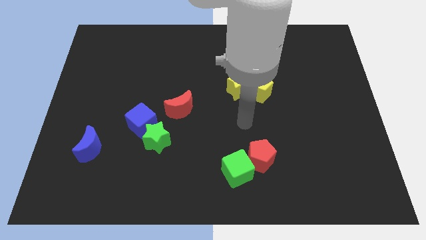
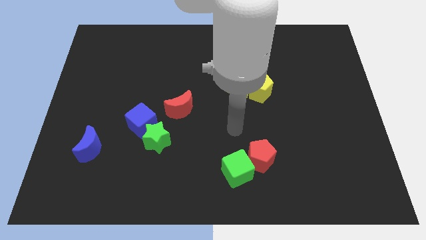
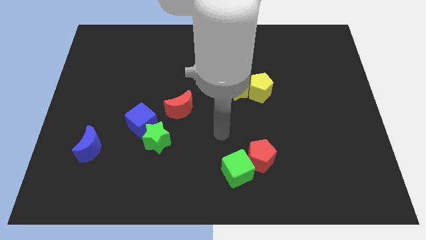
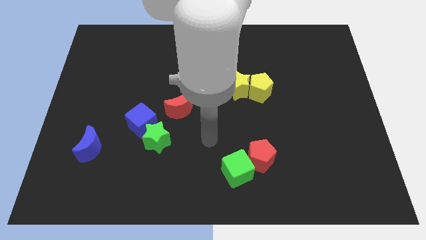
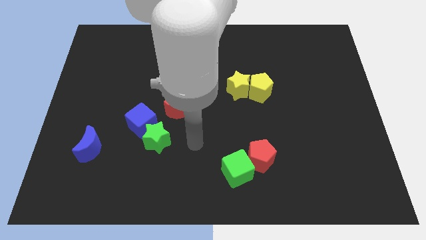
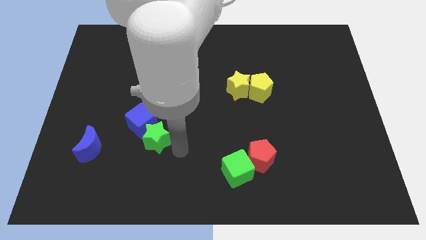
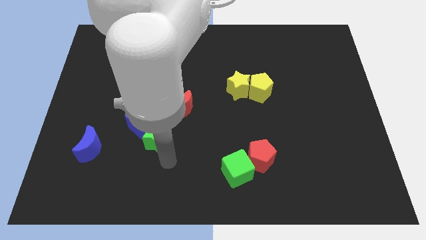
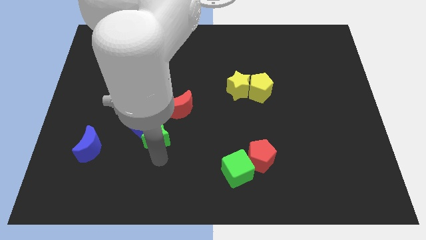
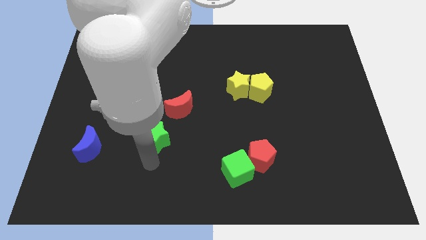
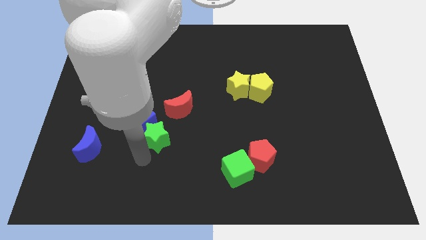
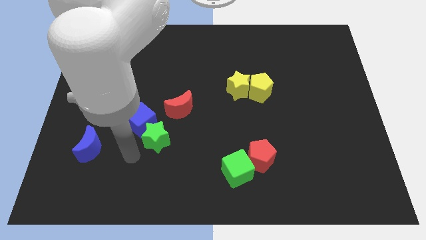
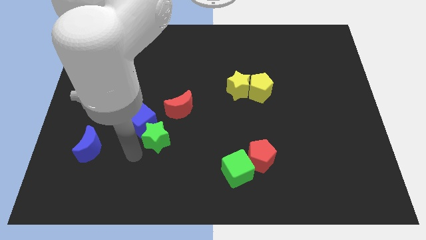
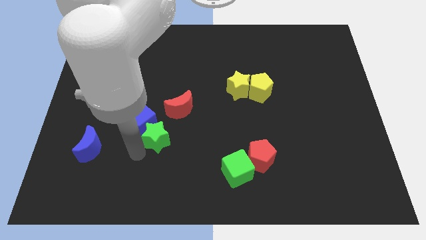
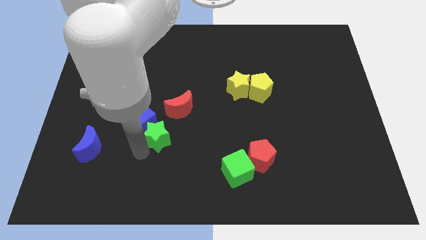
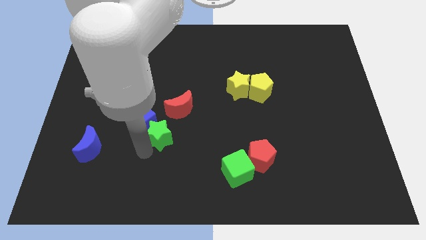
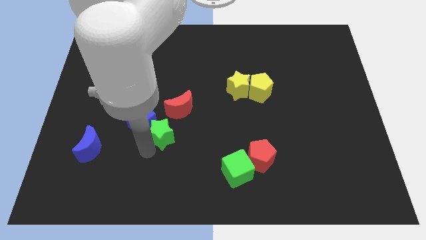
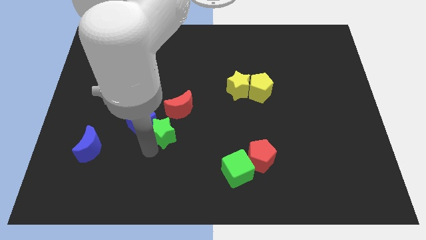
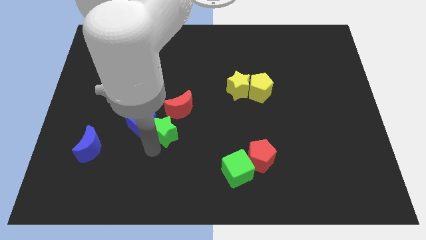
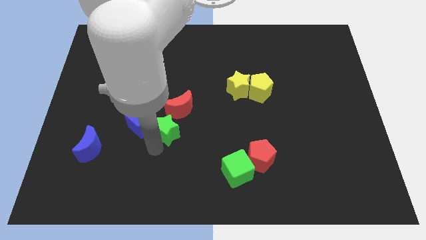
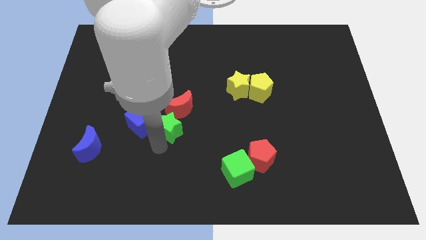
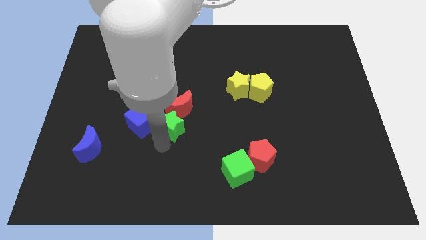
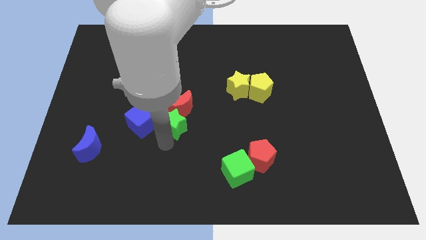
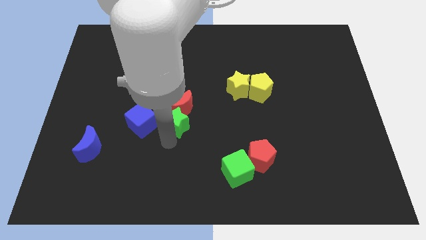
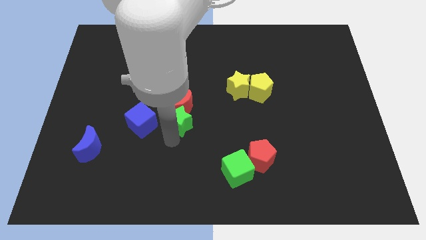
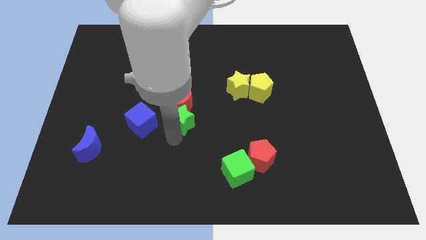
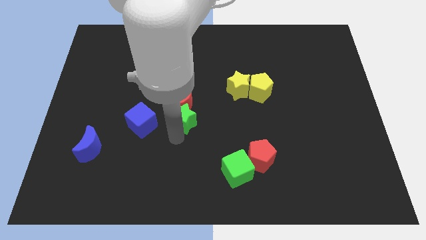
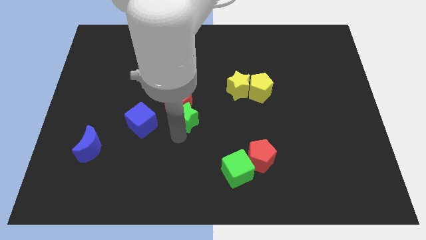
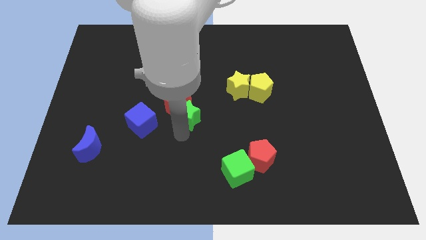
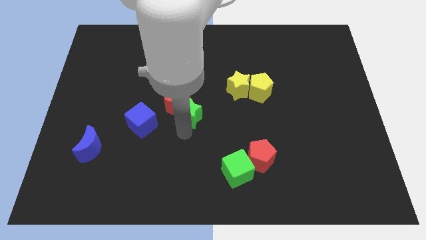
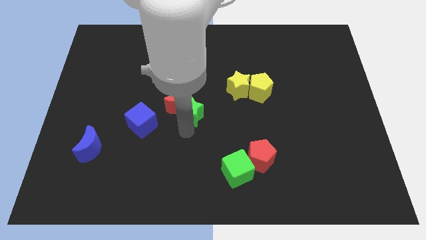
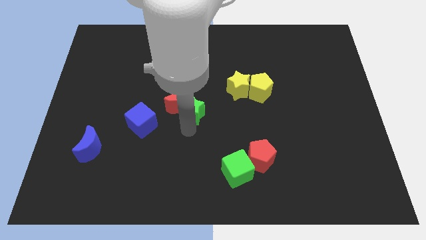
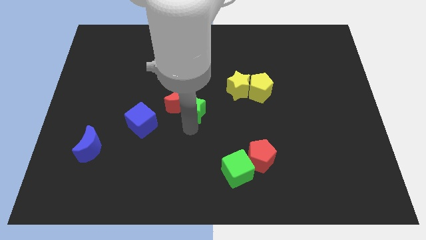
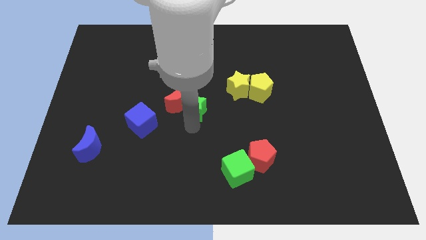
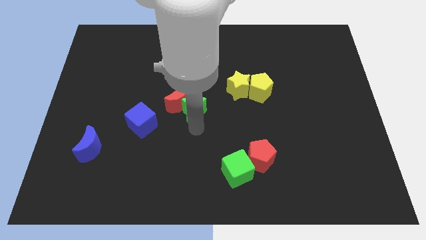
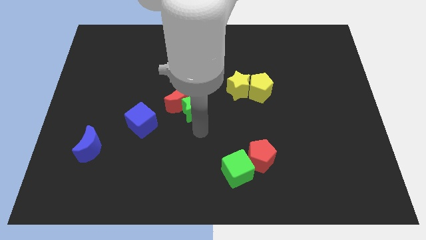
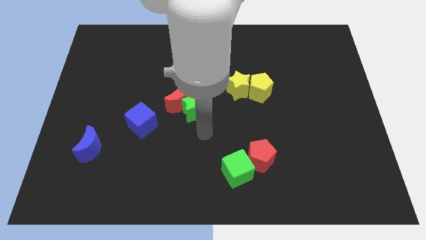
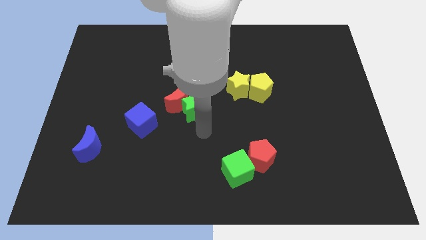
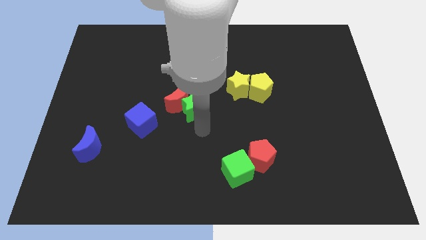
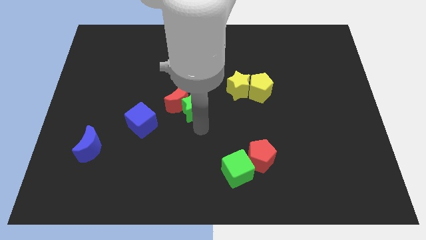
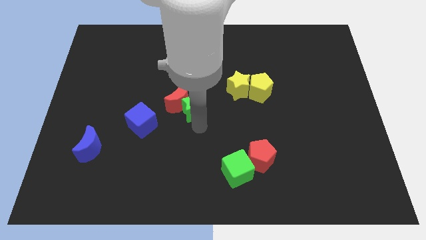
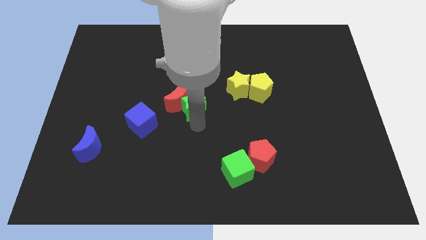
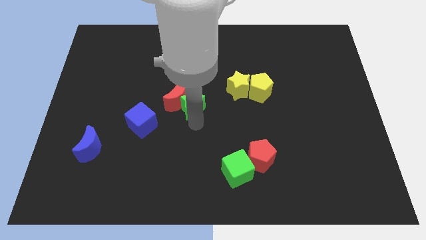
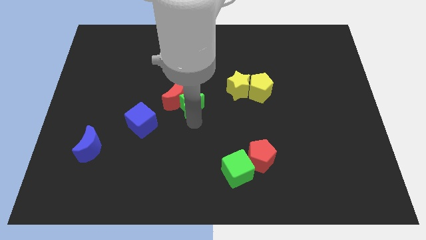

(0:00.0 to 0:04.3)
move the green star a little upwards

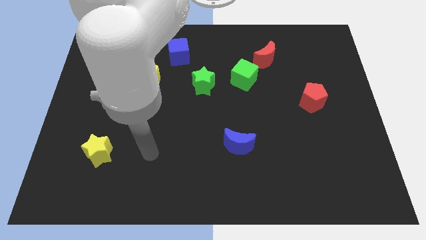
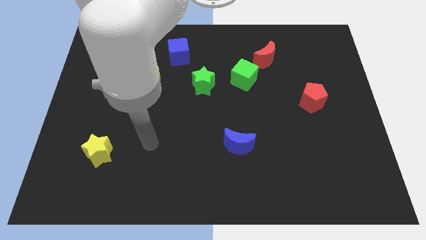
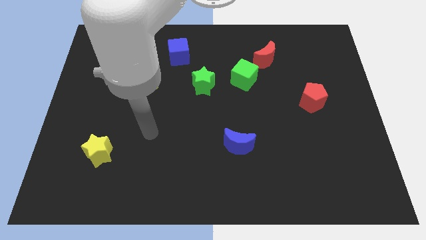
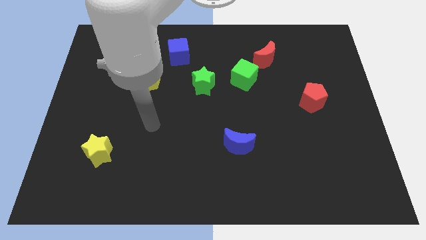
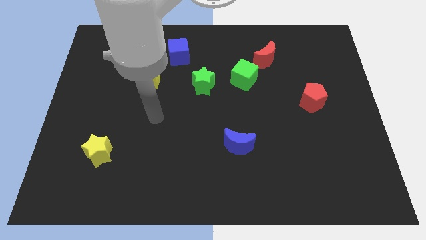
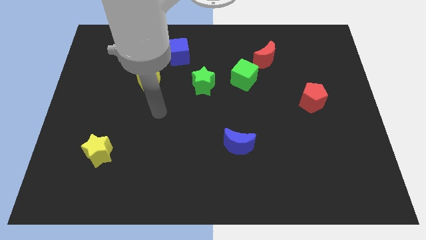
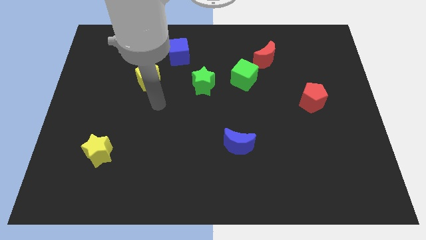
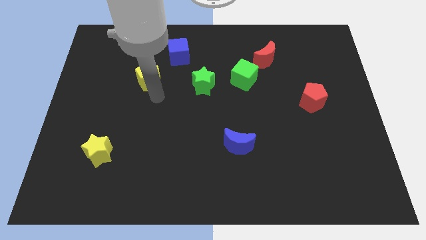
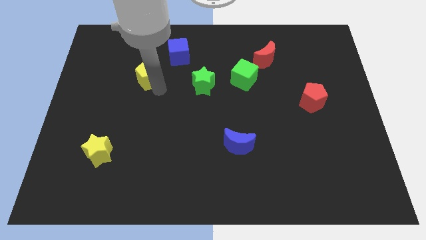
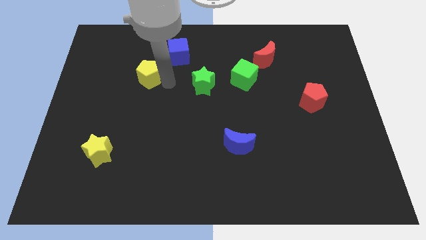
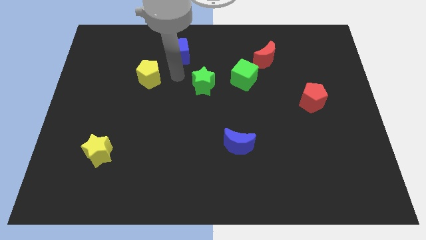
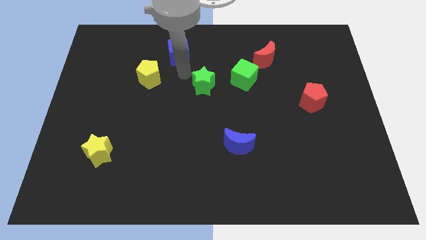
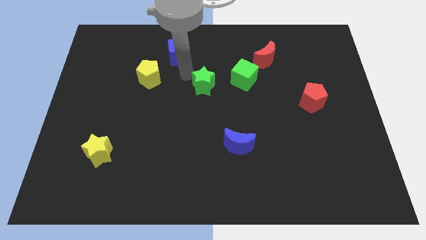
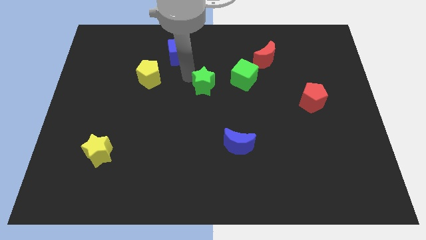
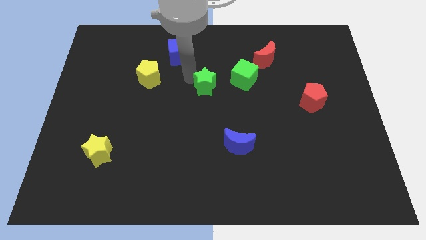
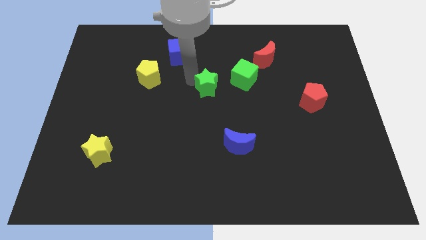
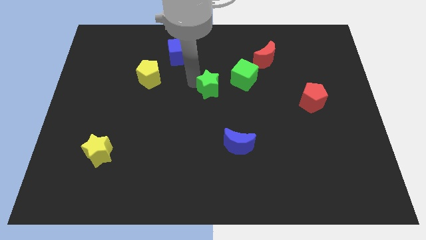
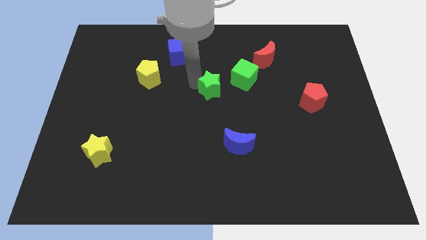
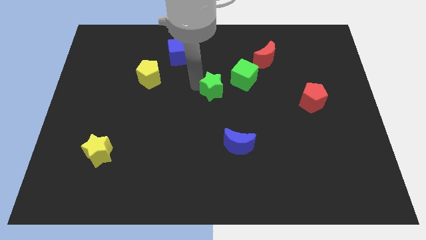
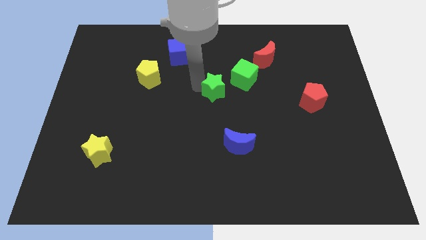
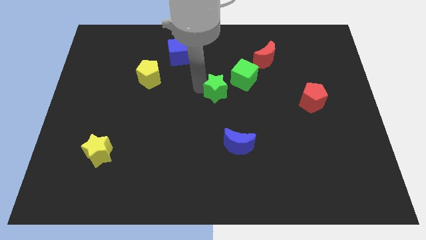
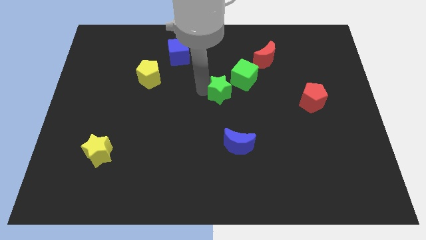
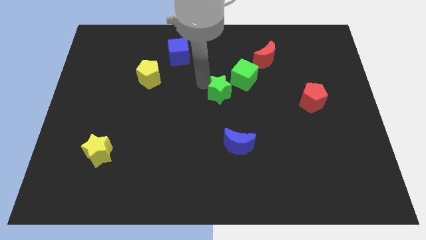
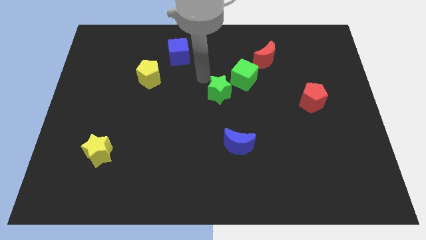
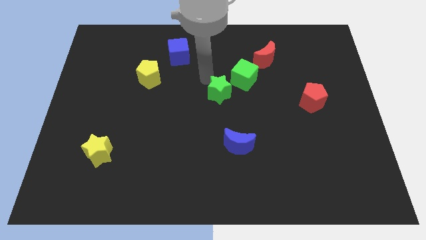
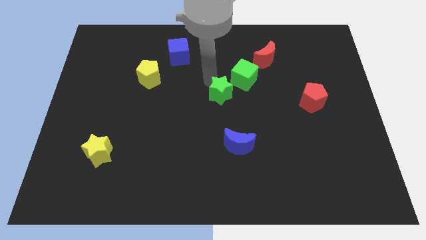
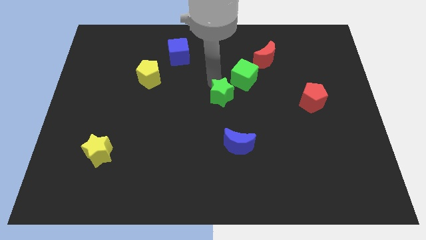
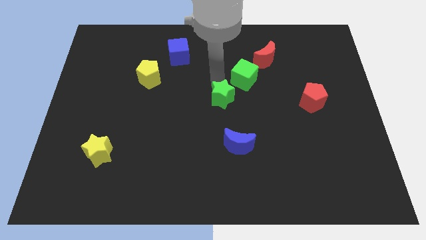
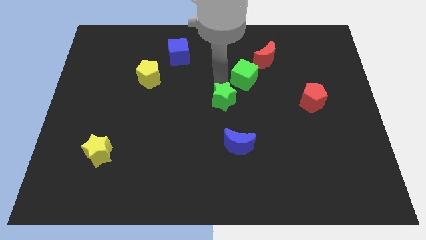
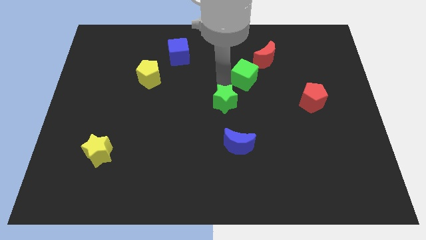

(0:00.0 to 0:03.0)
slightly push the green star downwards and right

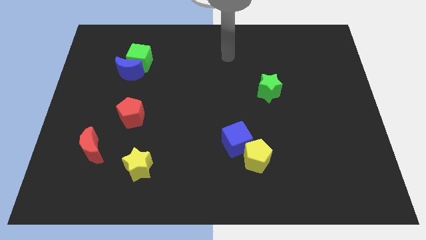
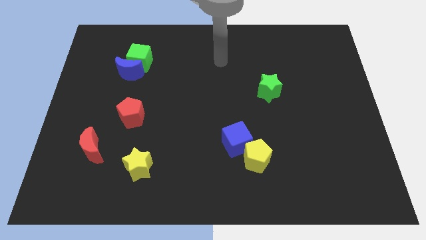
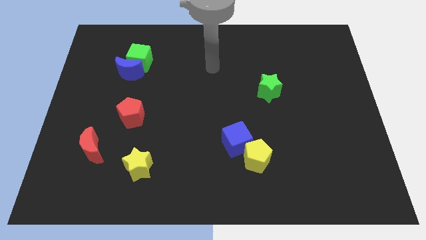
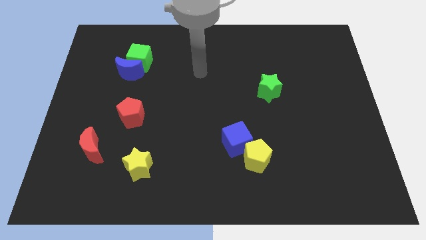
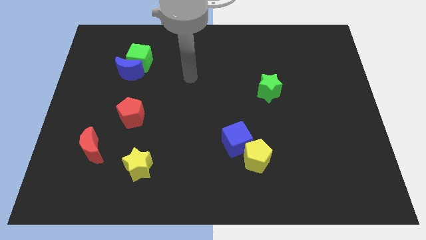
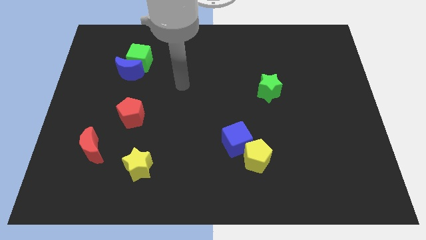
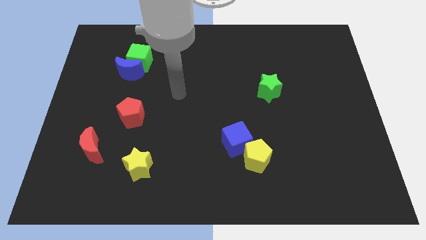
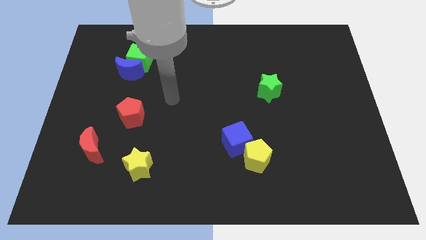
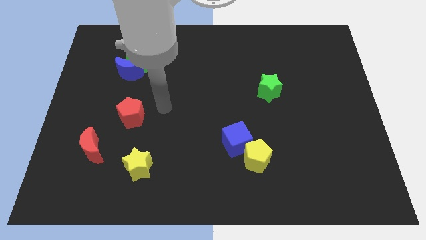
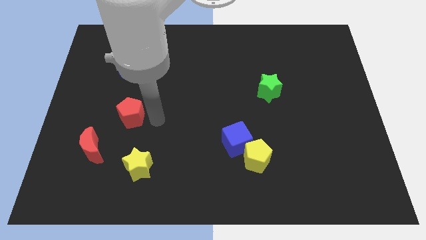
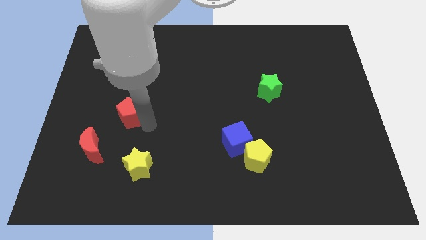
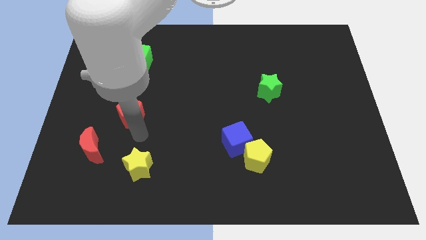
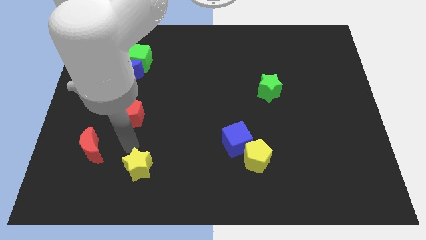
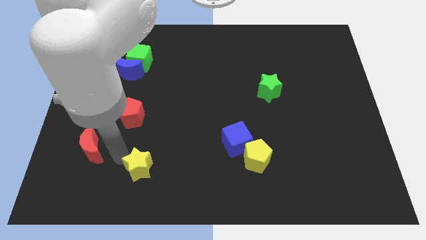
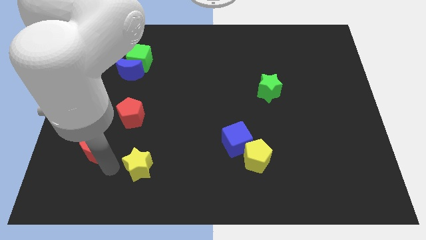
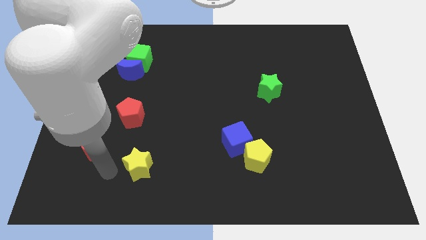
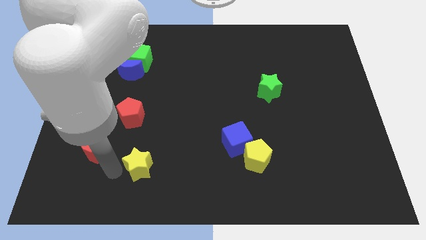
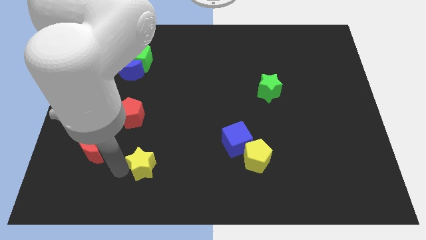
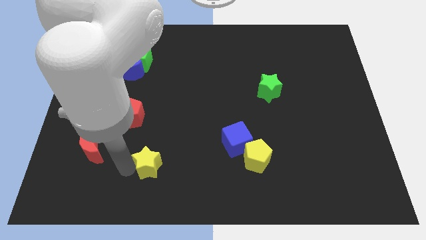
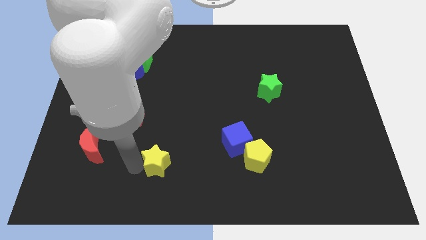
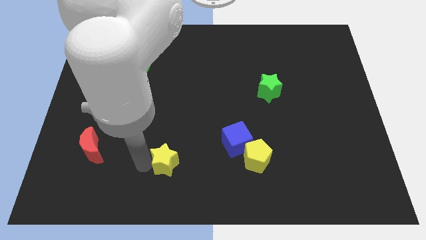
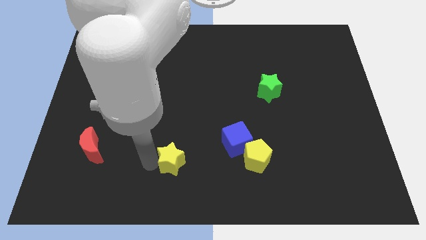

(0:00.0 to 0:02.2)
slide the yellow star right somewhat
